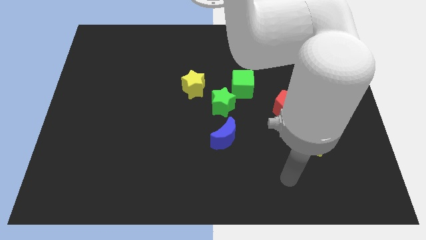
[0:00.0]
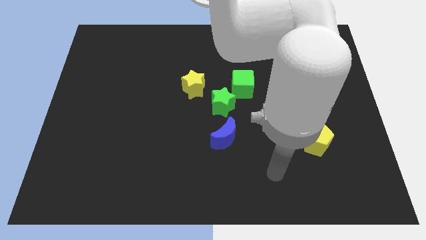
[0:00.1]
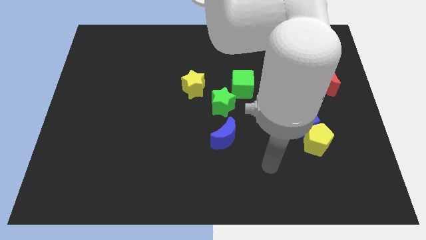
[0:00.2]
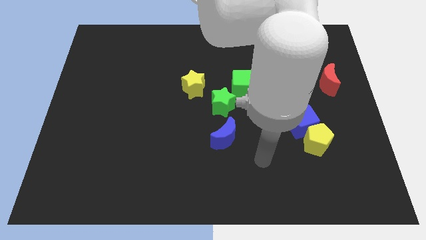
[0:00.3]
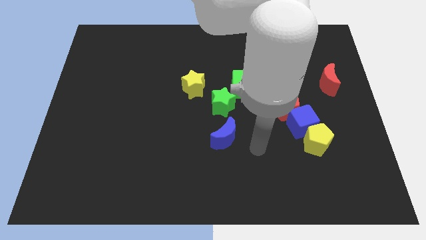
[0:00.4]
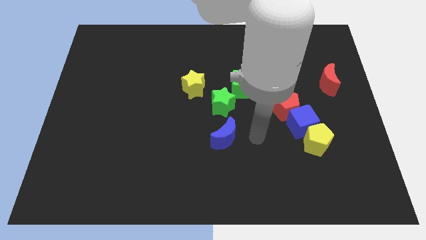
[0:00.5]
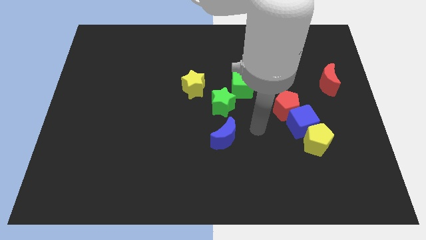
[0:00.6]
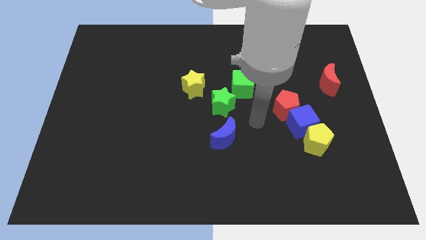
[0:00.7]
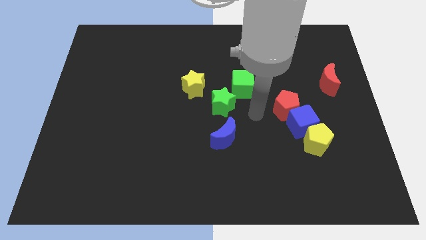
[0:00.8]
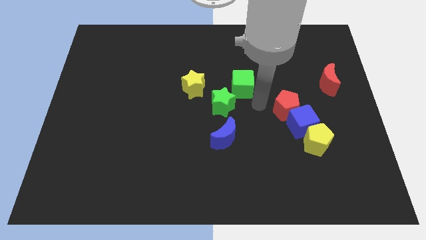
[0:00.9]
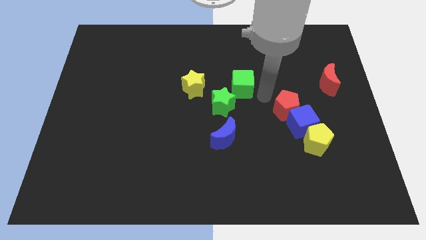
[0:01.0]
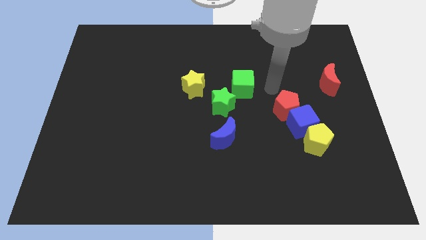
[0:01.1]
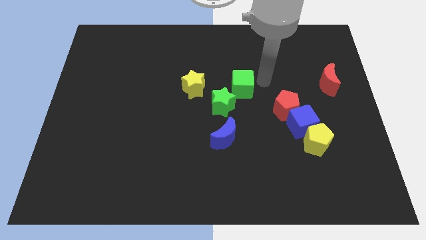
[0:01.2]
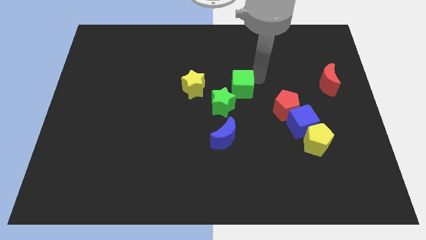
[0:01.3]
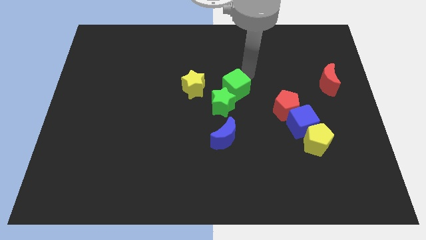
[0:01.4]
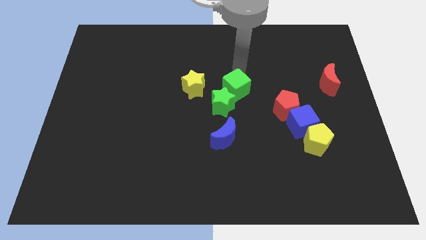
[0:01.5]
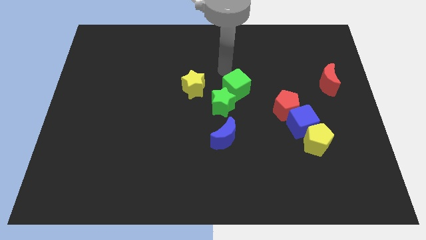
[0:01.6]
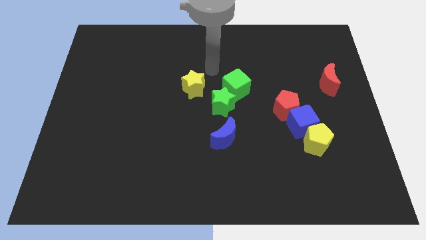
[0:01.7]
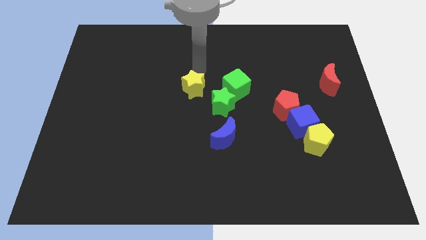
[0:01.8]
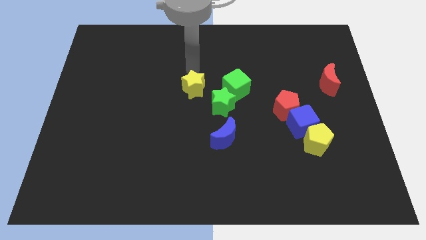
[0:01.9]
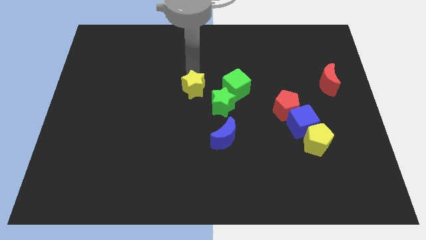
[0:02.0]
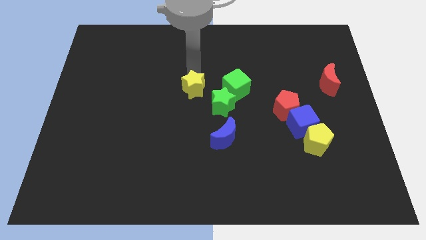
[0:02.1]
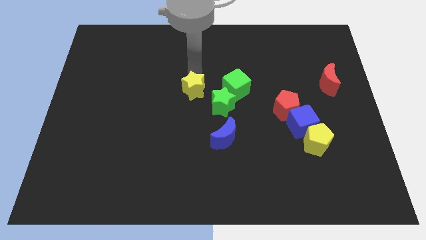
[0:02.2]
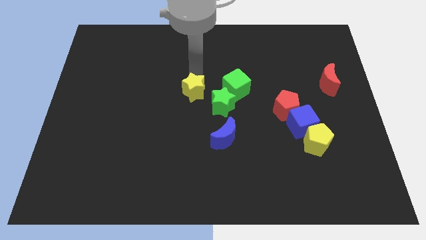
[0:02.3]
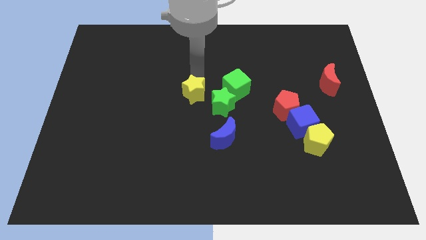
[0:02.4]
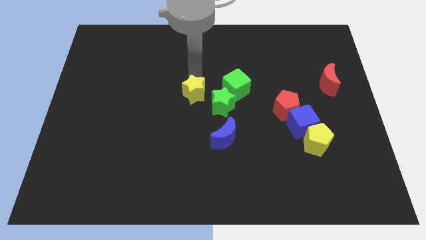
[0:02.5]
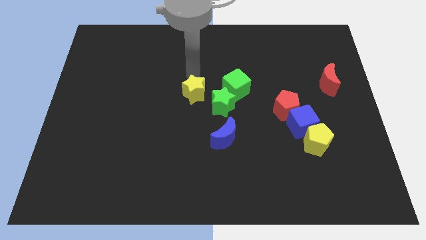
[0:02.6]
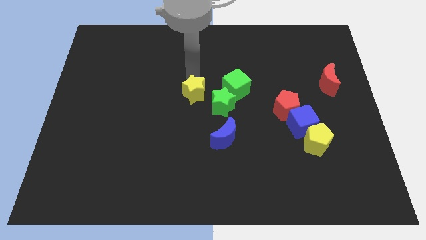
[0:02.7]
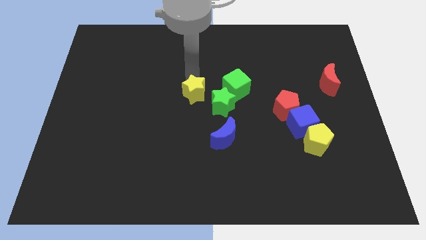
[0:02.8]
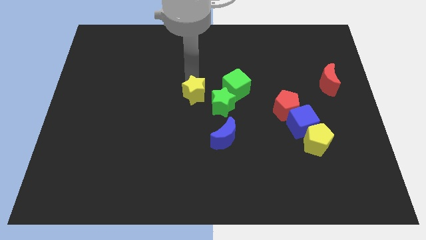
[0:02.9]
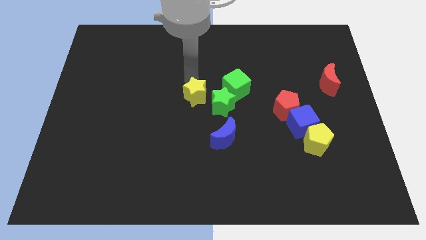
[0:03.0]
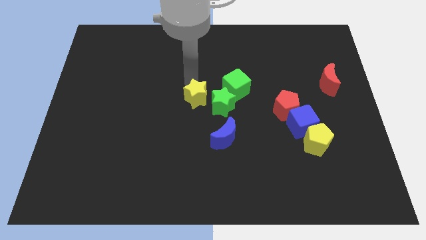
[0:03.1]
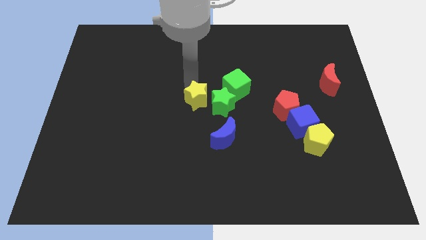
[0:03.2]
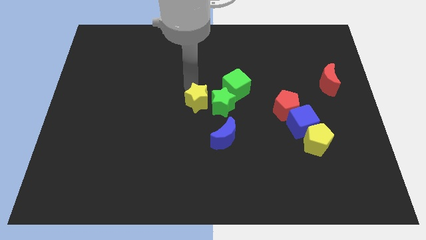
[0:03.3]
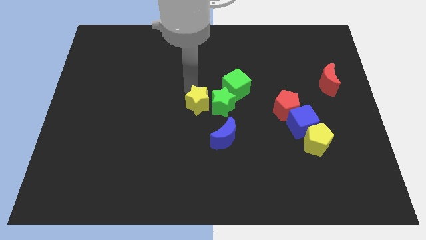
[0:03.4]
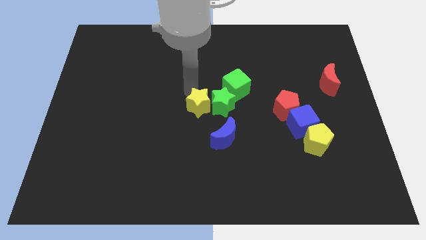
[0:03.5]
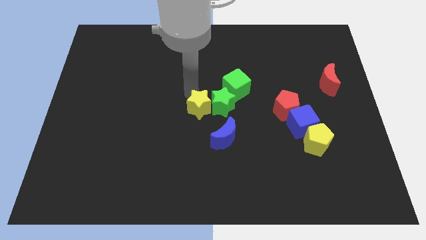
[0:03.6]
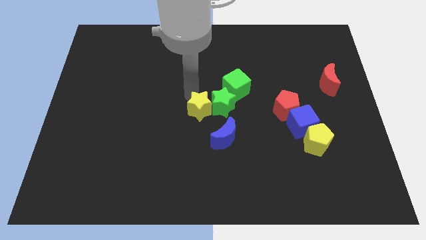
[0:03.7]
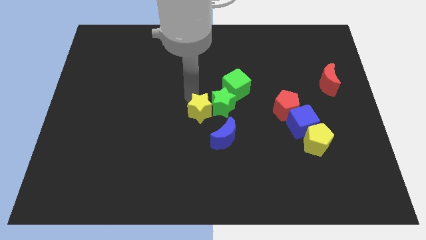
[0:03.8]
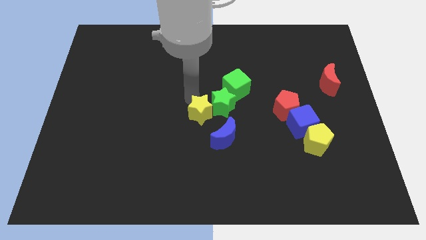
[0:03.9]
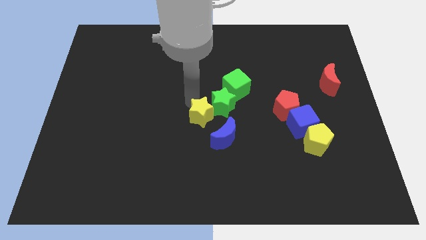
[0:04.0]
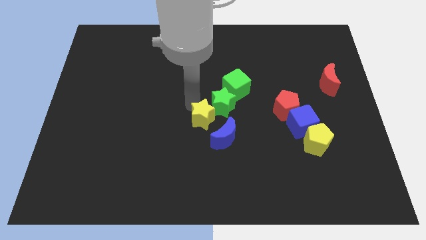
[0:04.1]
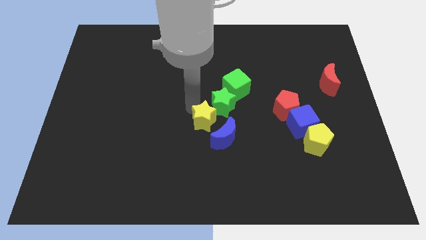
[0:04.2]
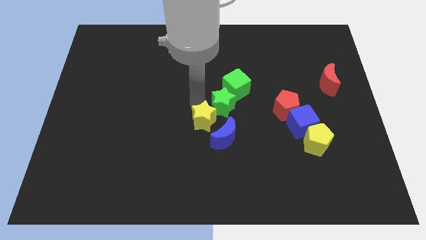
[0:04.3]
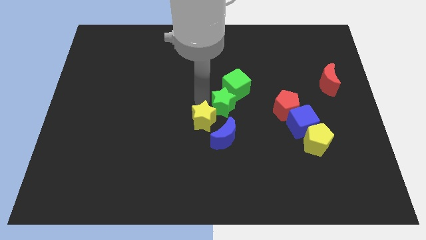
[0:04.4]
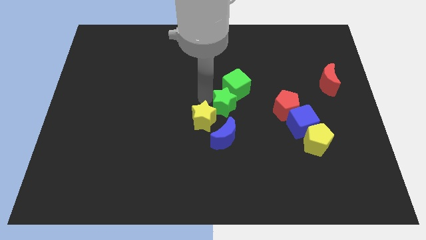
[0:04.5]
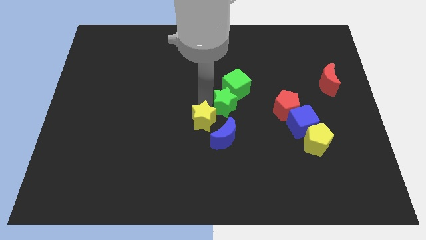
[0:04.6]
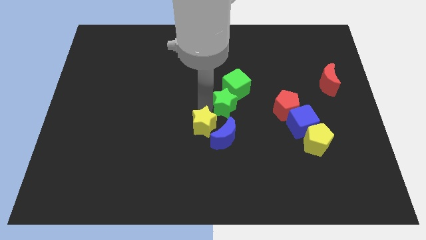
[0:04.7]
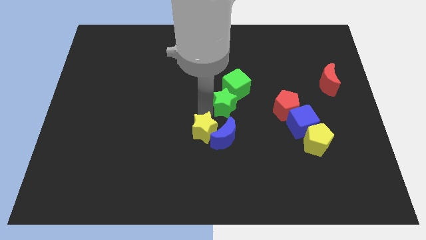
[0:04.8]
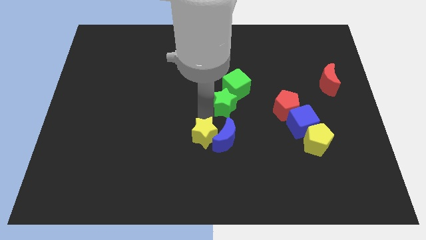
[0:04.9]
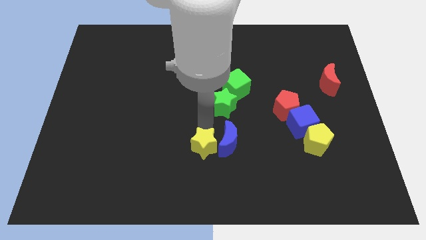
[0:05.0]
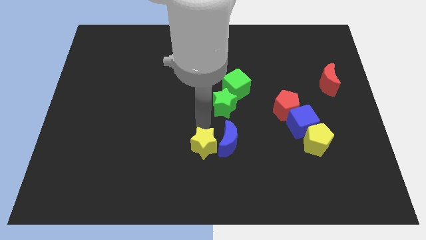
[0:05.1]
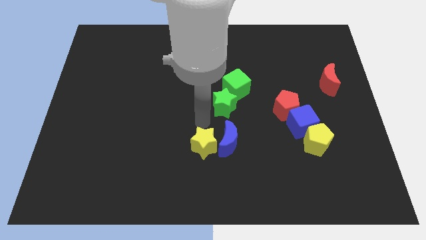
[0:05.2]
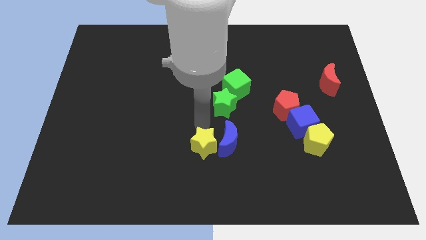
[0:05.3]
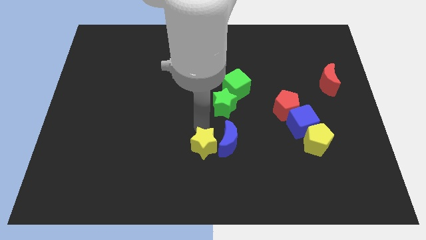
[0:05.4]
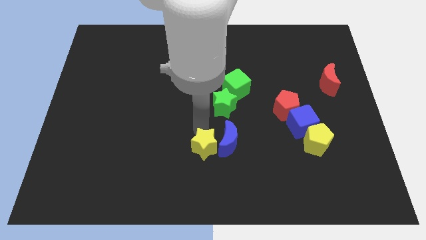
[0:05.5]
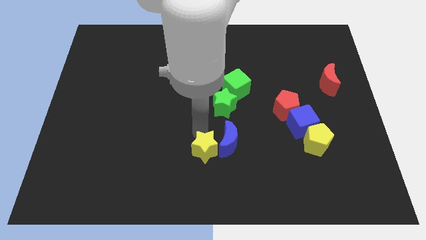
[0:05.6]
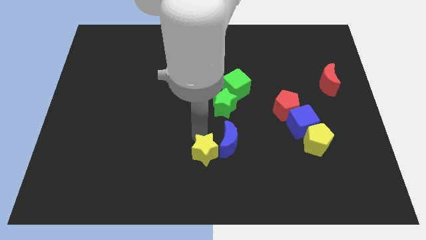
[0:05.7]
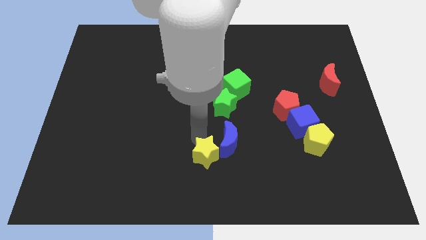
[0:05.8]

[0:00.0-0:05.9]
move the yellow star to the bottom side

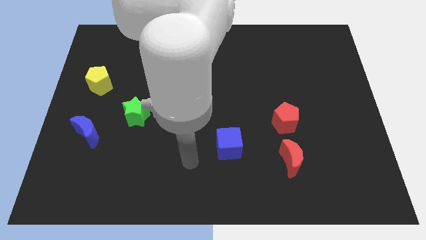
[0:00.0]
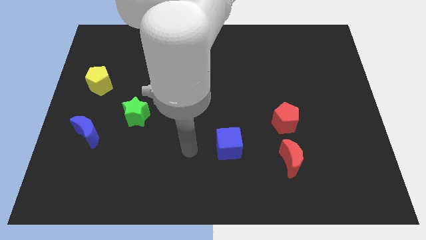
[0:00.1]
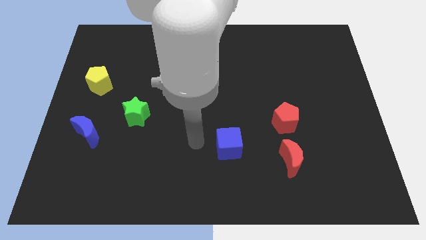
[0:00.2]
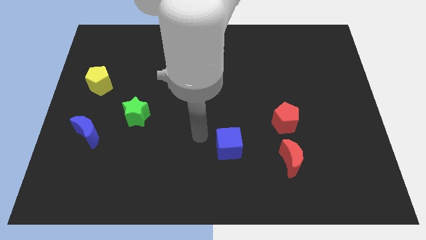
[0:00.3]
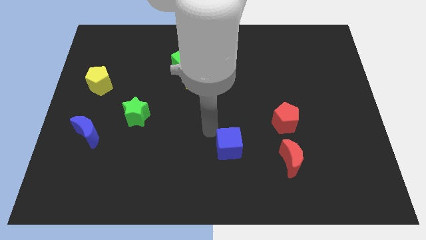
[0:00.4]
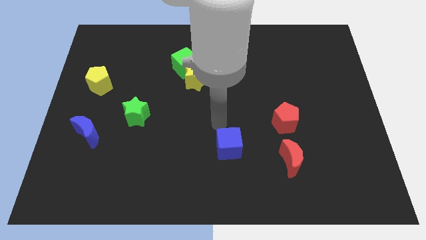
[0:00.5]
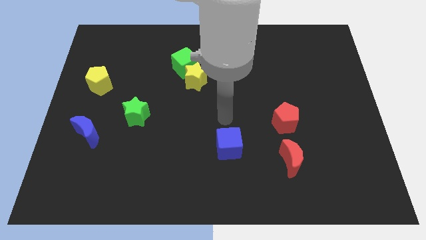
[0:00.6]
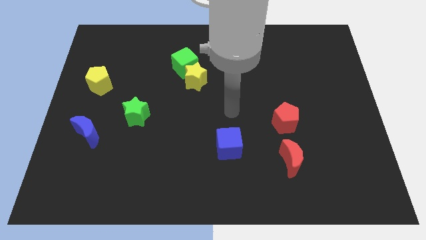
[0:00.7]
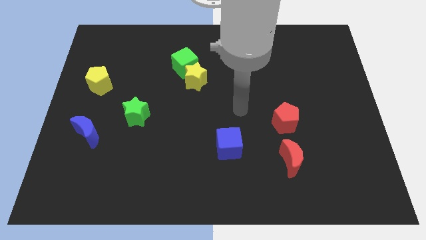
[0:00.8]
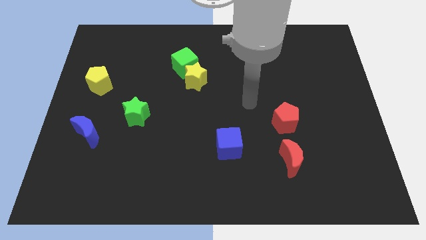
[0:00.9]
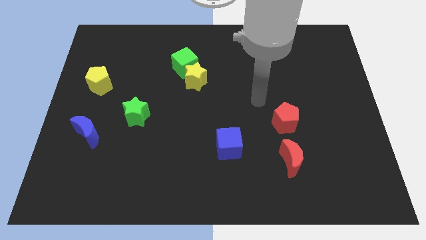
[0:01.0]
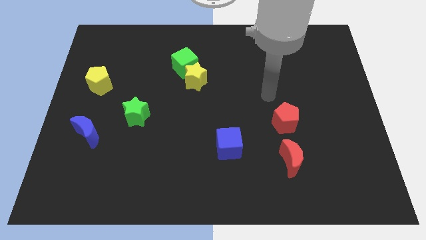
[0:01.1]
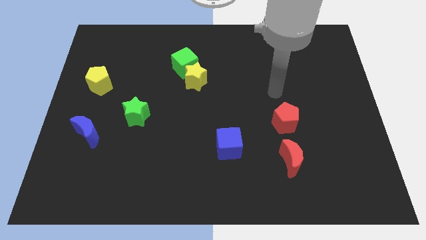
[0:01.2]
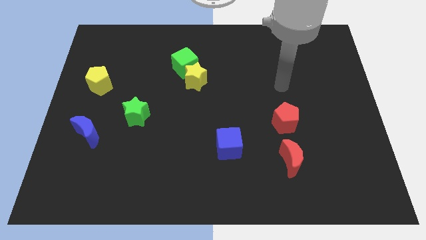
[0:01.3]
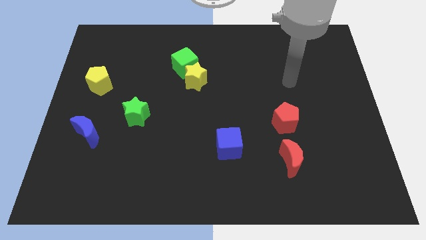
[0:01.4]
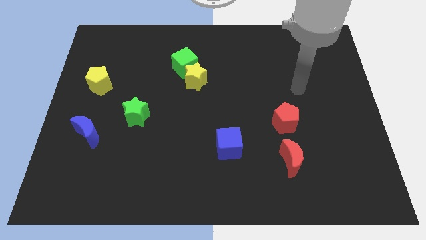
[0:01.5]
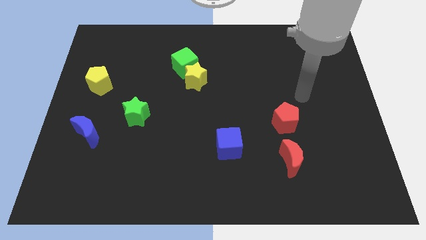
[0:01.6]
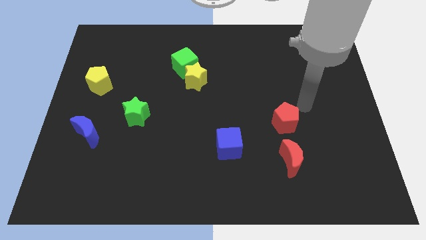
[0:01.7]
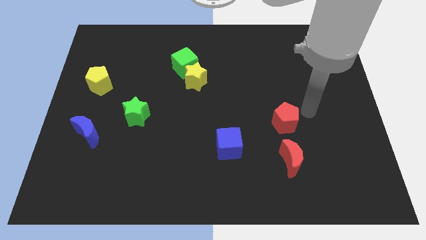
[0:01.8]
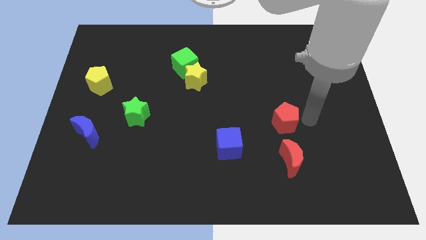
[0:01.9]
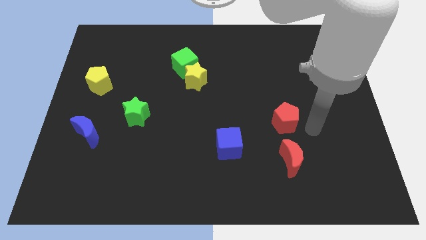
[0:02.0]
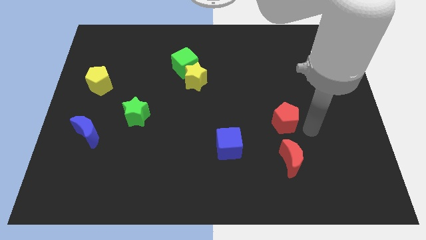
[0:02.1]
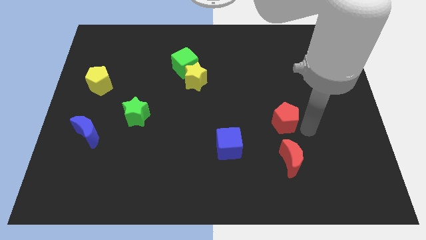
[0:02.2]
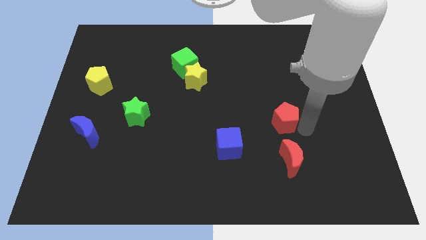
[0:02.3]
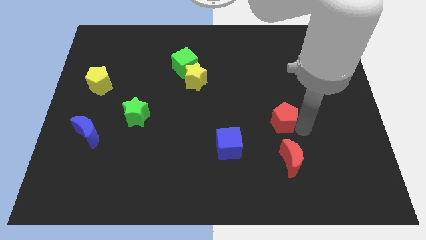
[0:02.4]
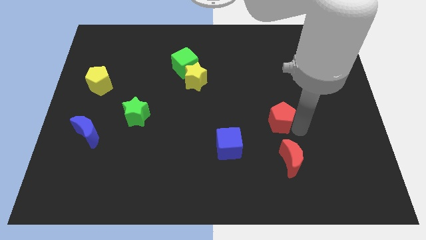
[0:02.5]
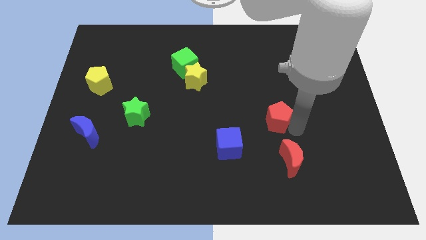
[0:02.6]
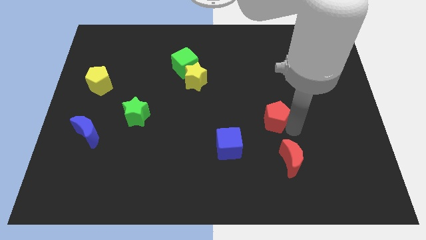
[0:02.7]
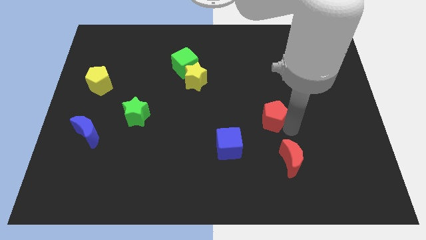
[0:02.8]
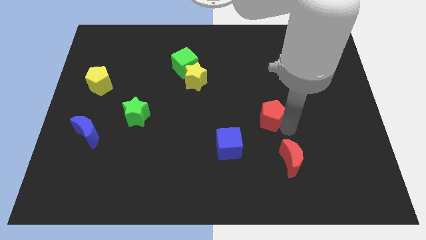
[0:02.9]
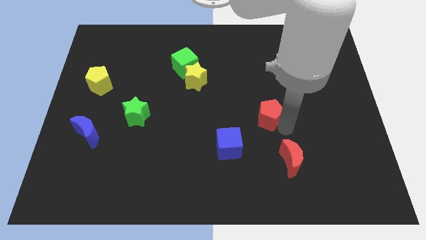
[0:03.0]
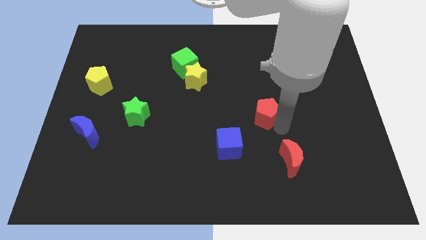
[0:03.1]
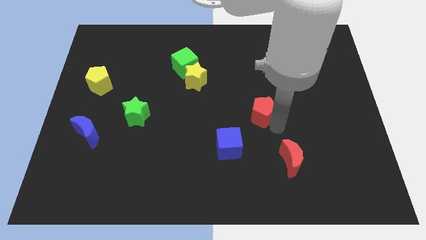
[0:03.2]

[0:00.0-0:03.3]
push the red pentagon to the center
